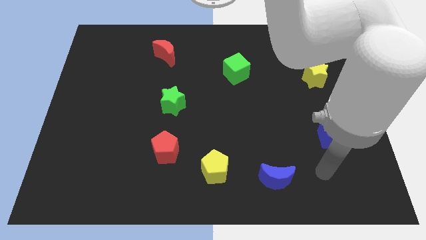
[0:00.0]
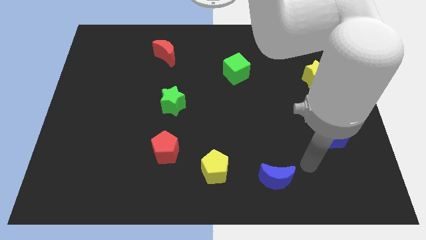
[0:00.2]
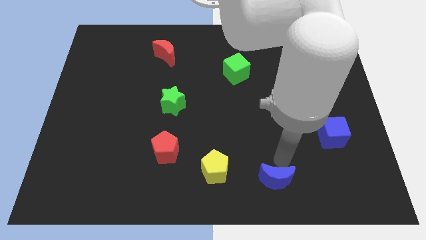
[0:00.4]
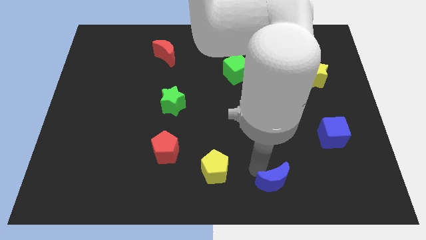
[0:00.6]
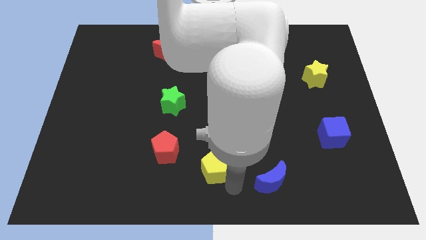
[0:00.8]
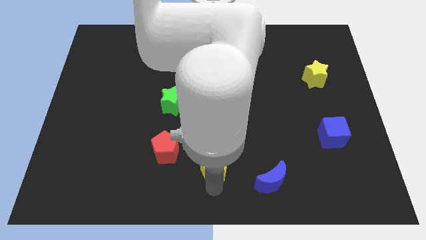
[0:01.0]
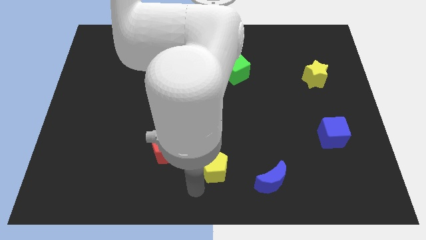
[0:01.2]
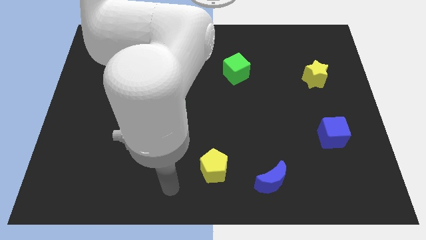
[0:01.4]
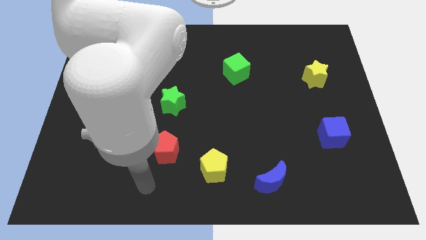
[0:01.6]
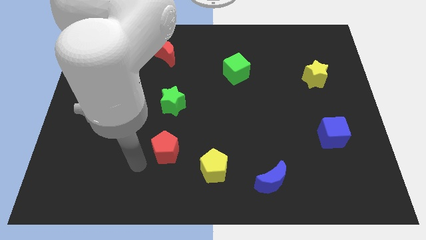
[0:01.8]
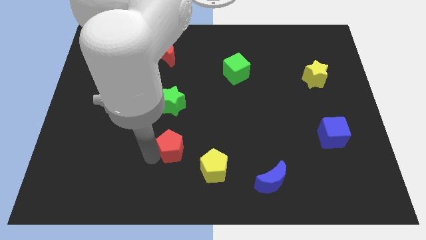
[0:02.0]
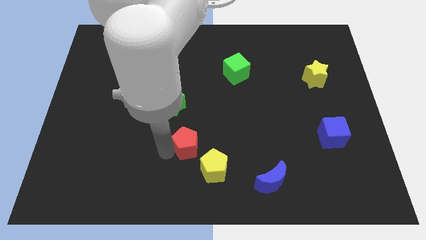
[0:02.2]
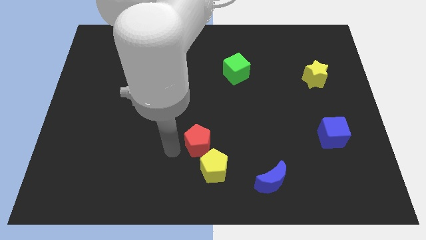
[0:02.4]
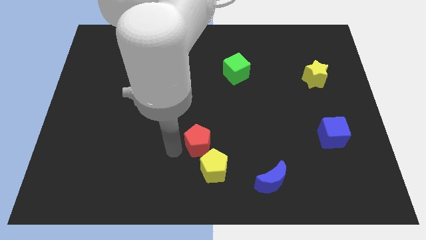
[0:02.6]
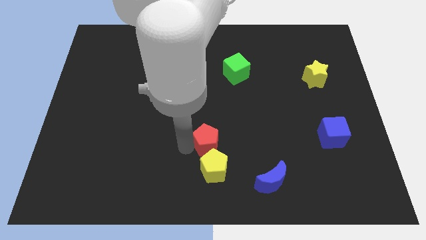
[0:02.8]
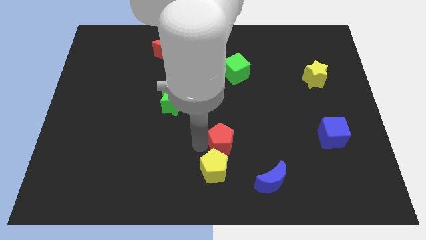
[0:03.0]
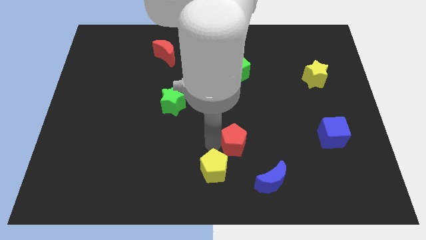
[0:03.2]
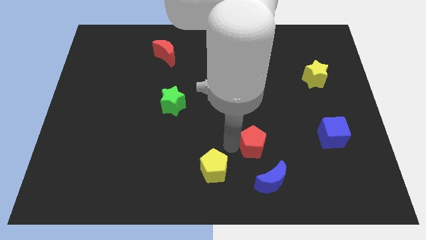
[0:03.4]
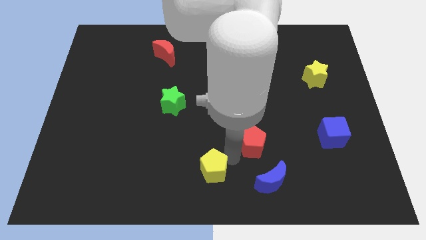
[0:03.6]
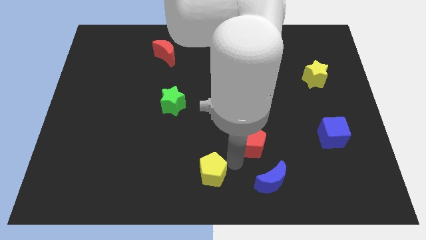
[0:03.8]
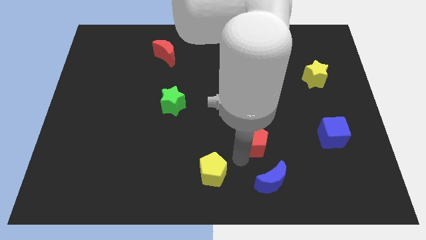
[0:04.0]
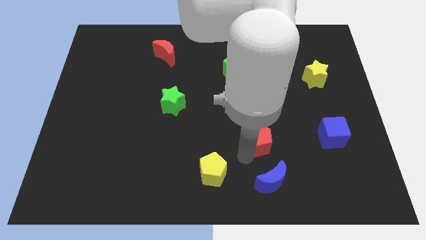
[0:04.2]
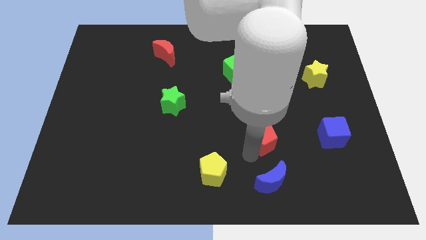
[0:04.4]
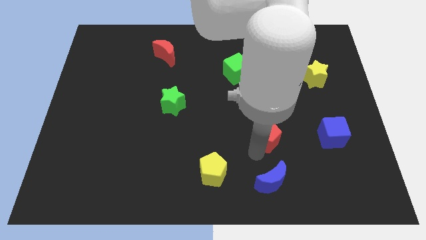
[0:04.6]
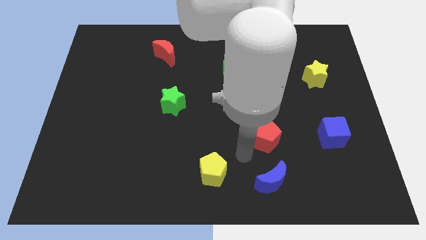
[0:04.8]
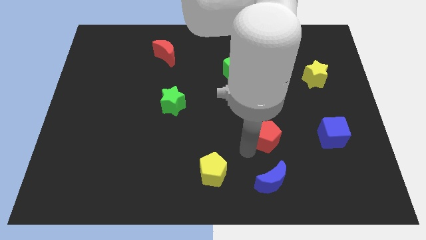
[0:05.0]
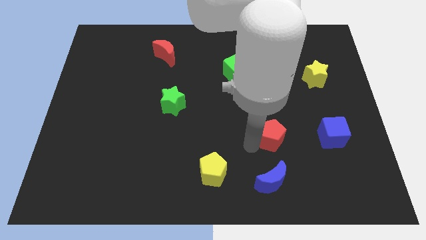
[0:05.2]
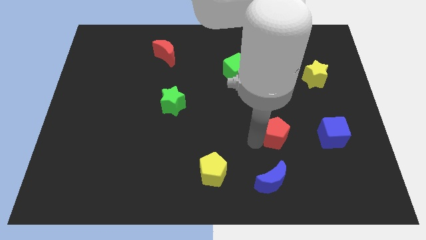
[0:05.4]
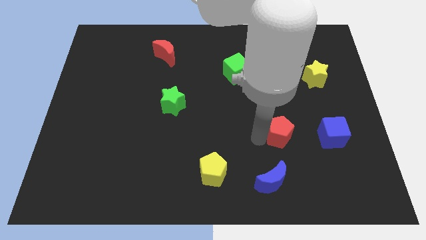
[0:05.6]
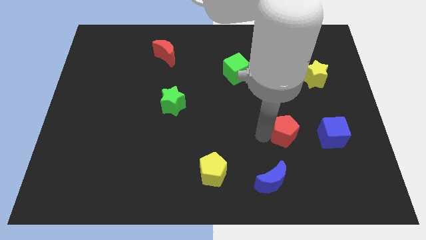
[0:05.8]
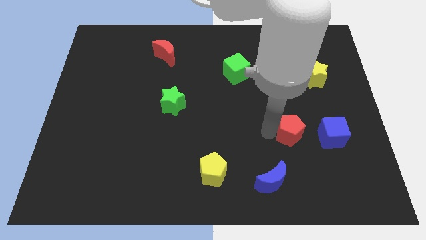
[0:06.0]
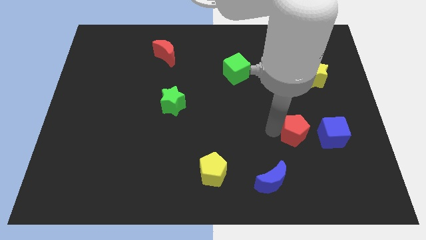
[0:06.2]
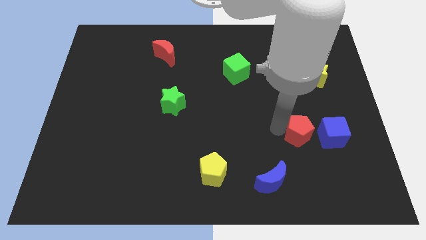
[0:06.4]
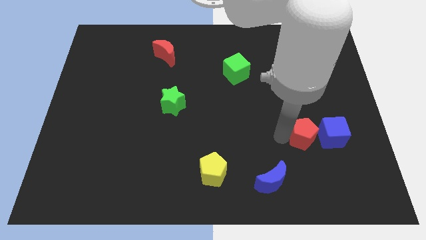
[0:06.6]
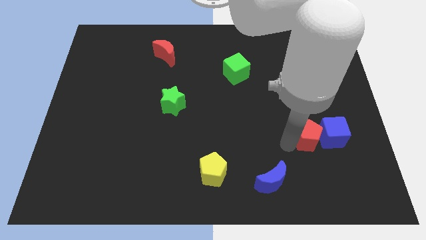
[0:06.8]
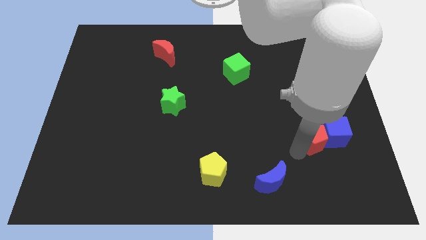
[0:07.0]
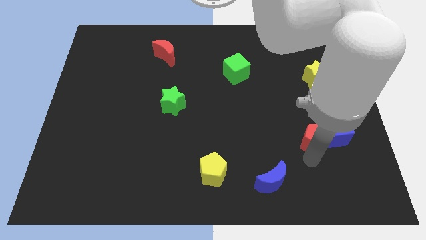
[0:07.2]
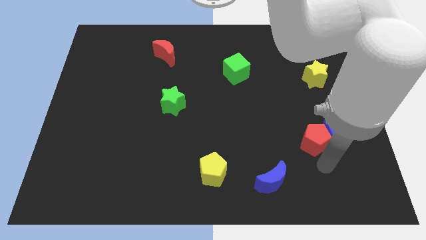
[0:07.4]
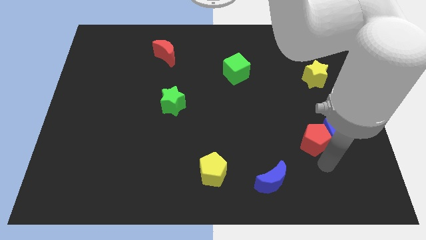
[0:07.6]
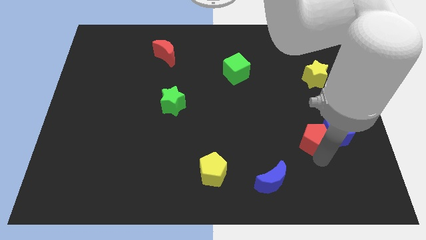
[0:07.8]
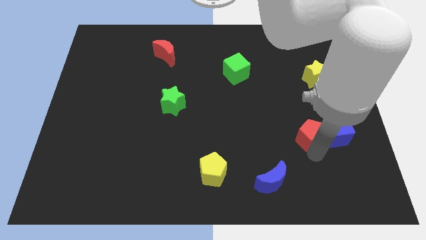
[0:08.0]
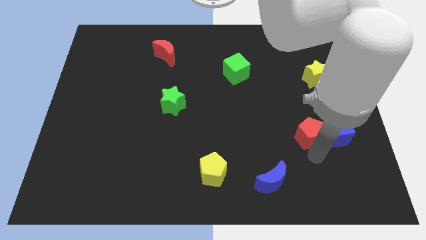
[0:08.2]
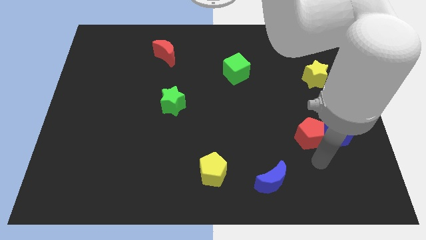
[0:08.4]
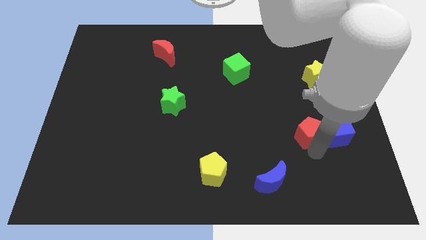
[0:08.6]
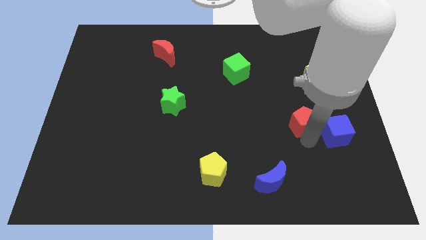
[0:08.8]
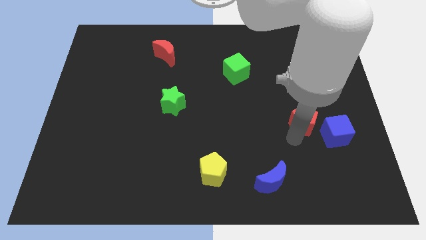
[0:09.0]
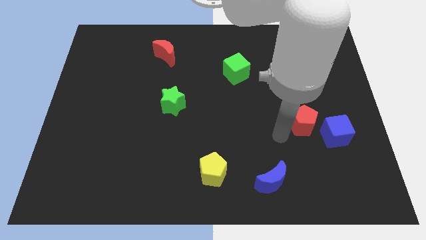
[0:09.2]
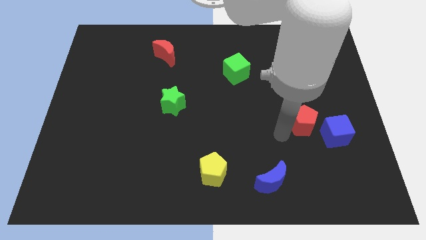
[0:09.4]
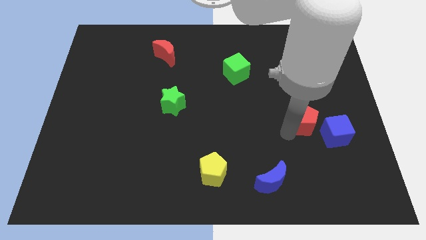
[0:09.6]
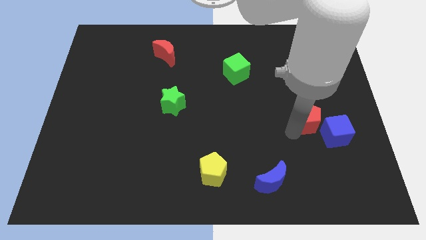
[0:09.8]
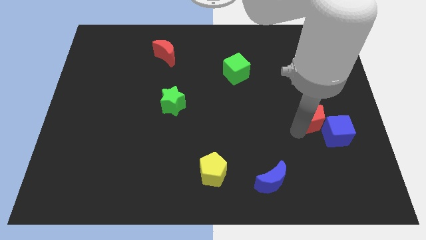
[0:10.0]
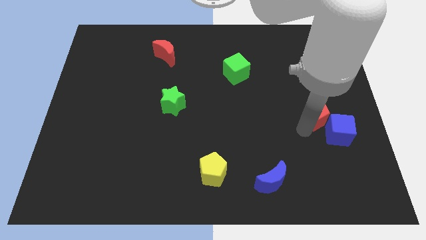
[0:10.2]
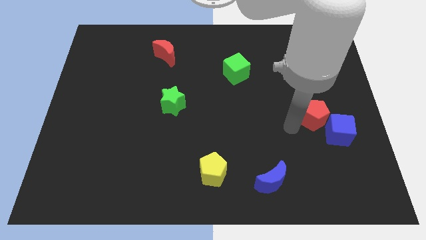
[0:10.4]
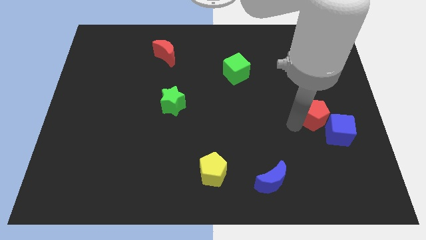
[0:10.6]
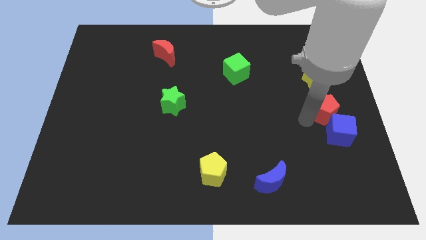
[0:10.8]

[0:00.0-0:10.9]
slide the red pentagon to the right side

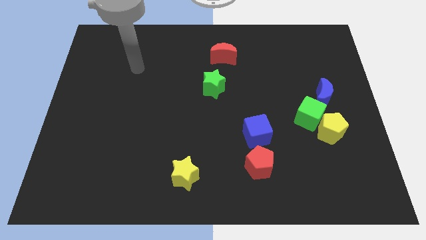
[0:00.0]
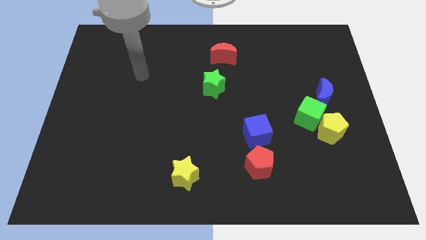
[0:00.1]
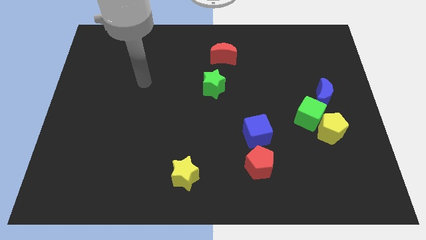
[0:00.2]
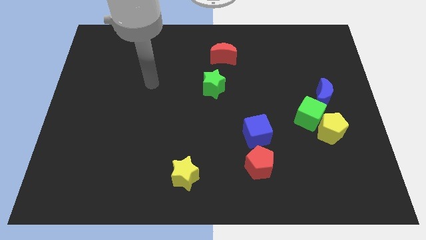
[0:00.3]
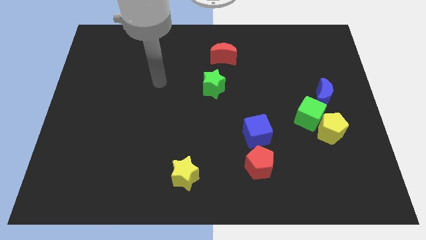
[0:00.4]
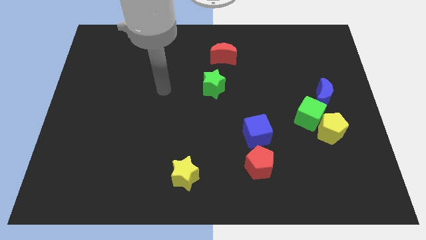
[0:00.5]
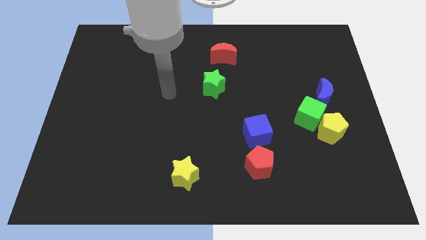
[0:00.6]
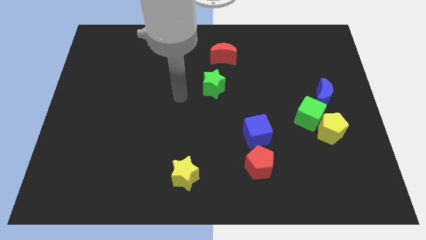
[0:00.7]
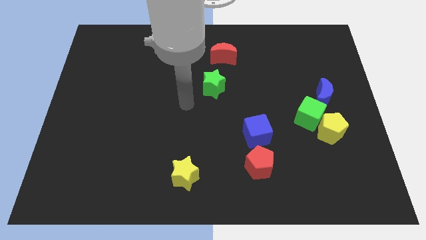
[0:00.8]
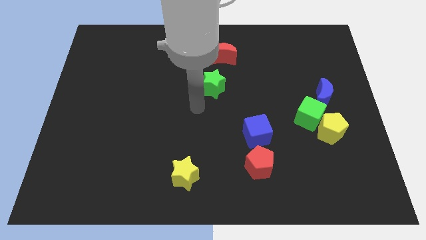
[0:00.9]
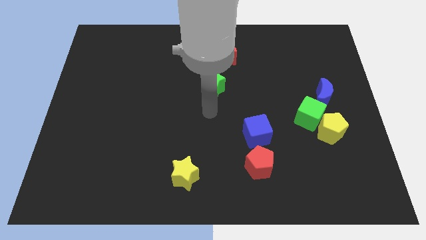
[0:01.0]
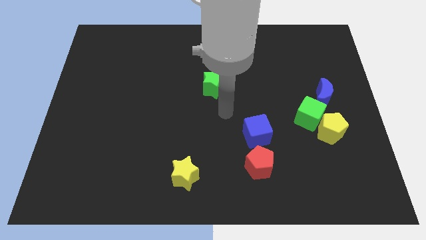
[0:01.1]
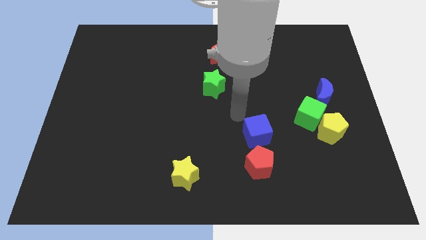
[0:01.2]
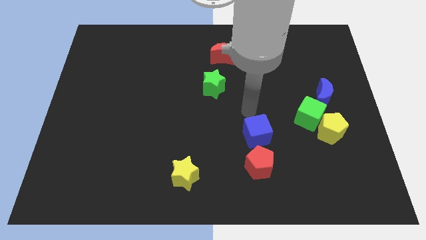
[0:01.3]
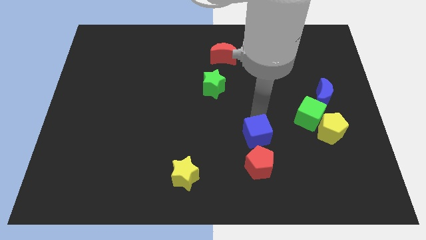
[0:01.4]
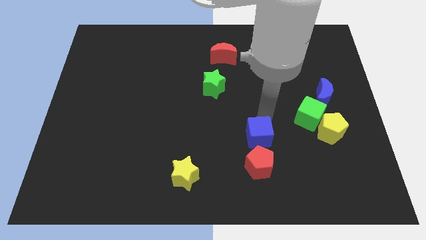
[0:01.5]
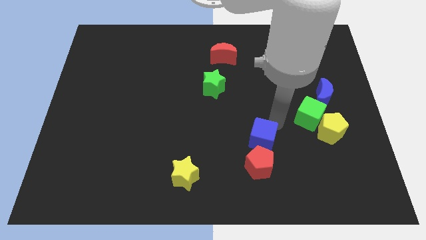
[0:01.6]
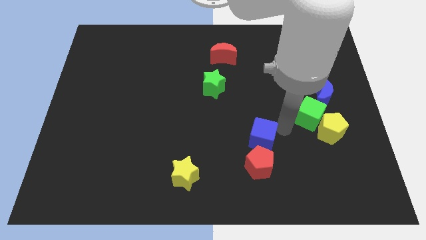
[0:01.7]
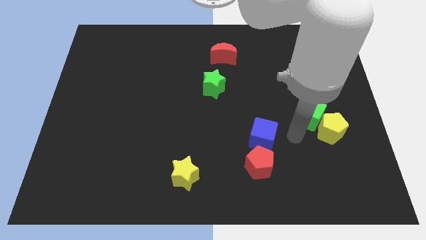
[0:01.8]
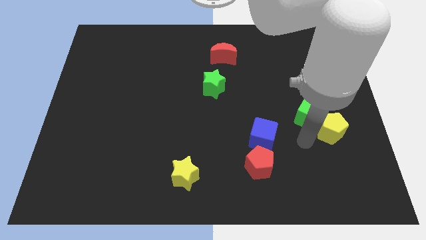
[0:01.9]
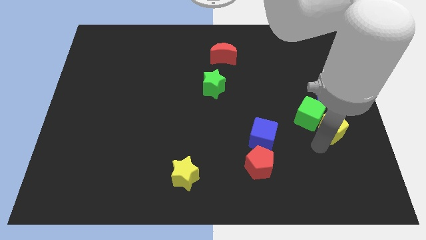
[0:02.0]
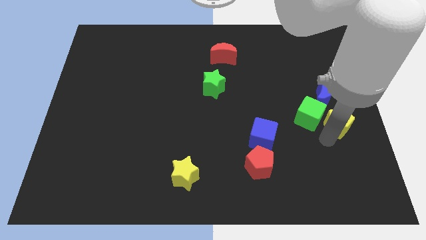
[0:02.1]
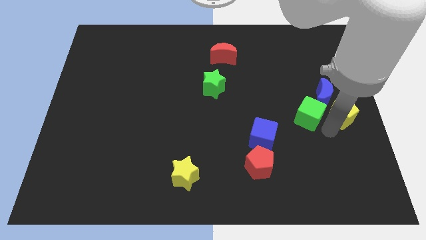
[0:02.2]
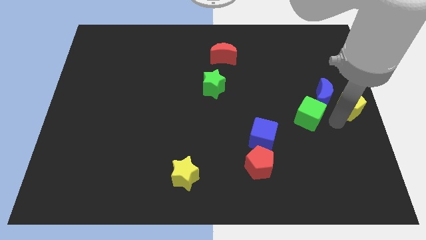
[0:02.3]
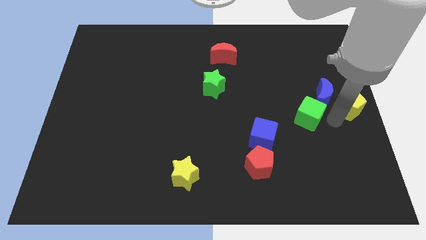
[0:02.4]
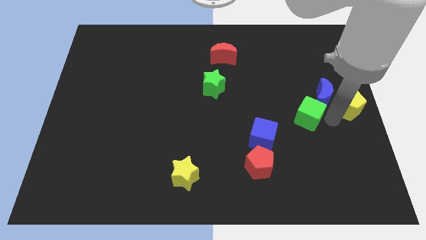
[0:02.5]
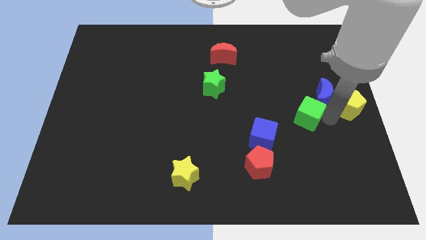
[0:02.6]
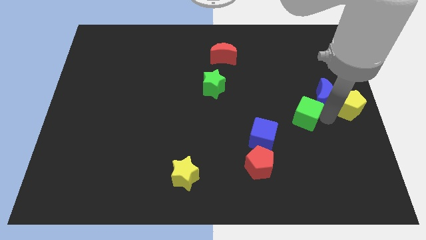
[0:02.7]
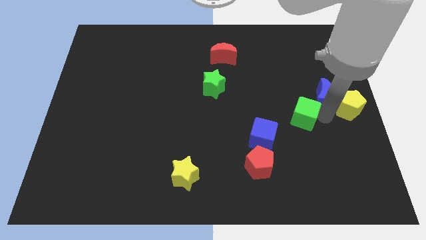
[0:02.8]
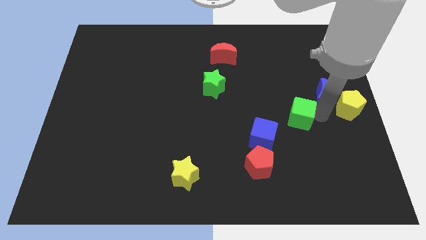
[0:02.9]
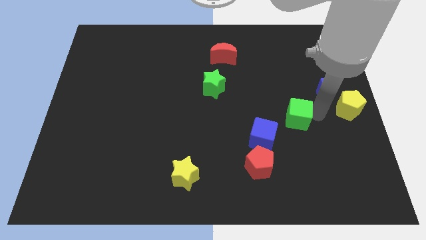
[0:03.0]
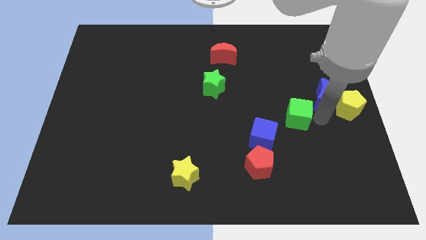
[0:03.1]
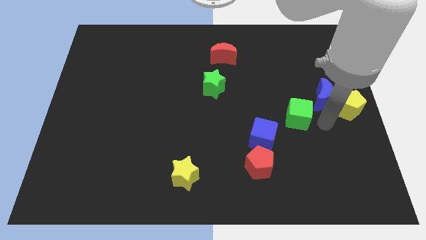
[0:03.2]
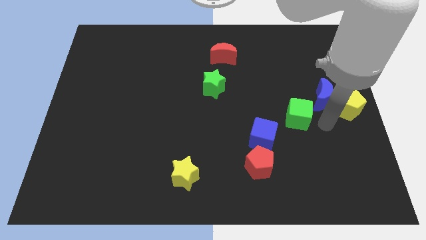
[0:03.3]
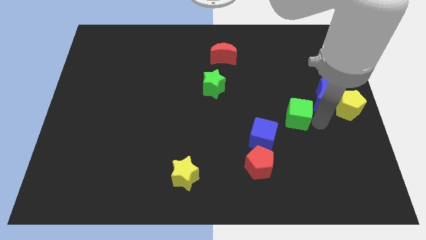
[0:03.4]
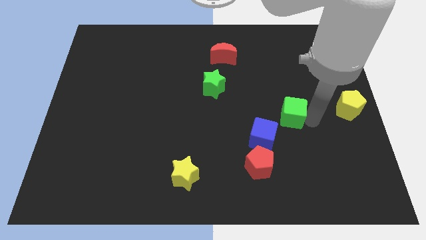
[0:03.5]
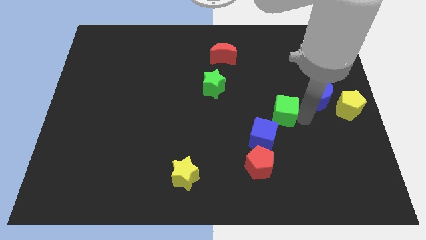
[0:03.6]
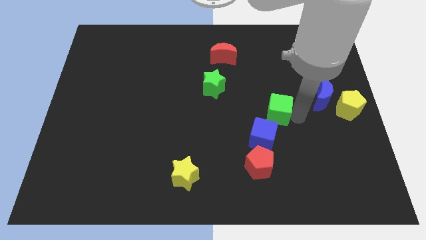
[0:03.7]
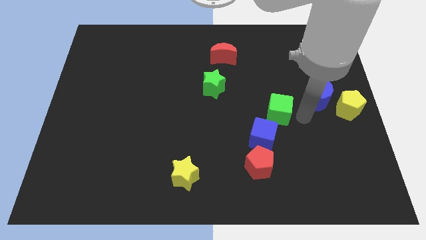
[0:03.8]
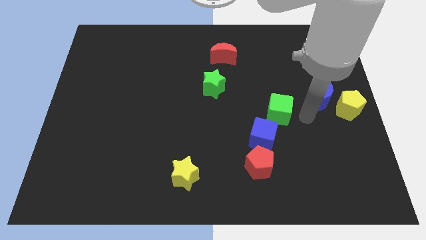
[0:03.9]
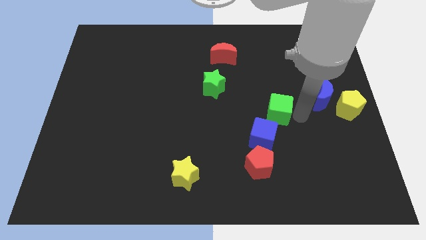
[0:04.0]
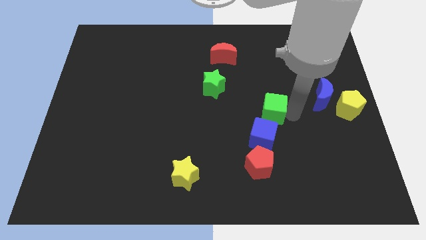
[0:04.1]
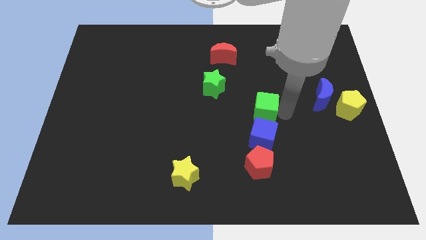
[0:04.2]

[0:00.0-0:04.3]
slide the green cube to the center of the board
